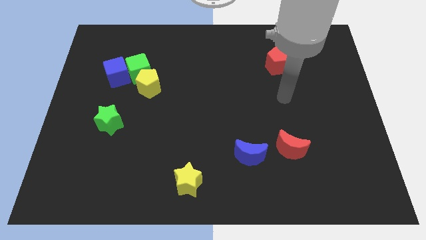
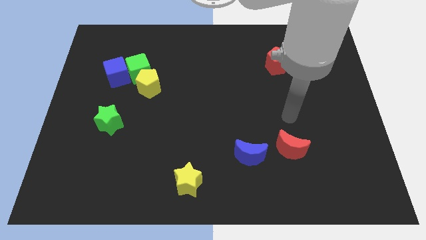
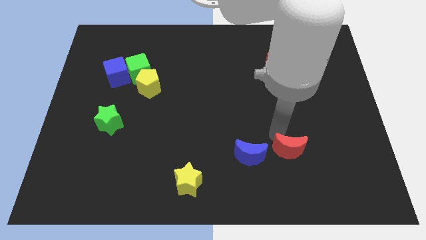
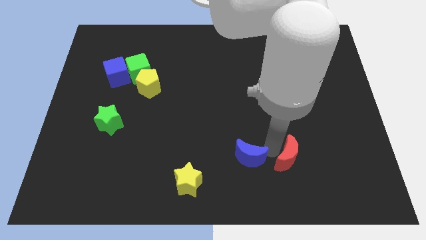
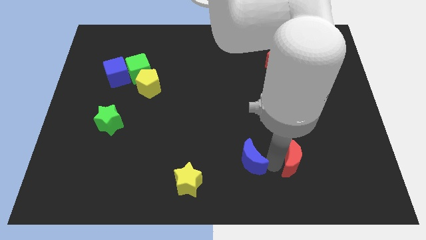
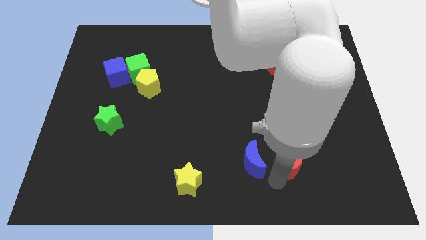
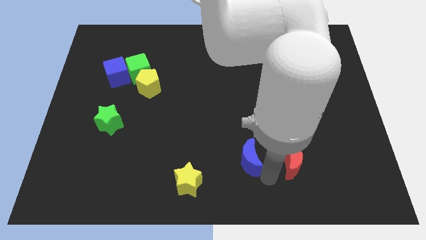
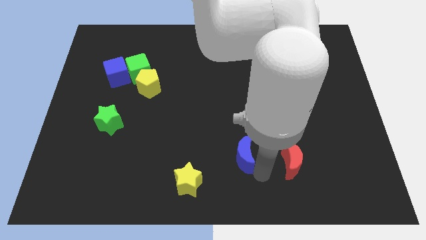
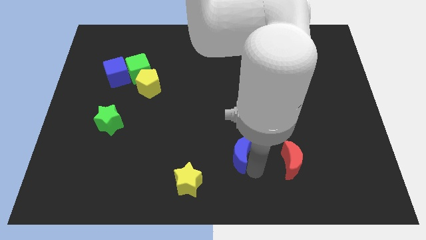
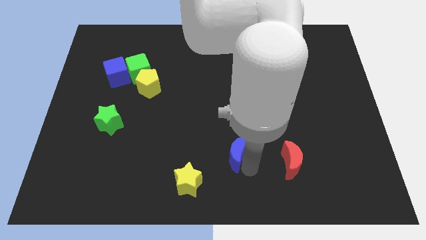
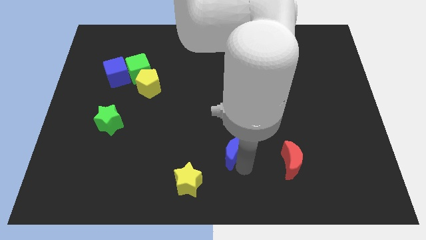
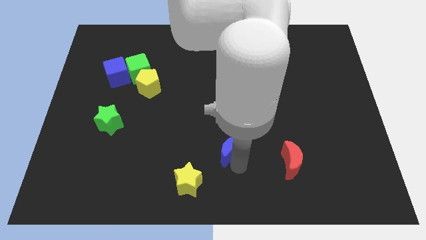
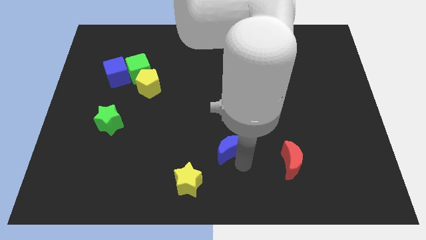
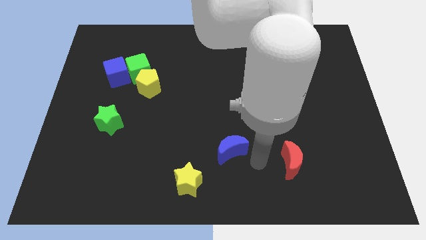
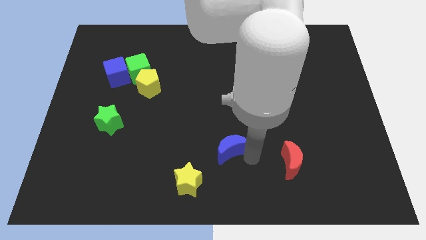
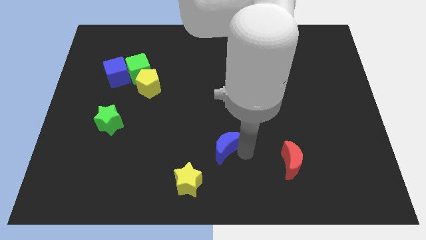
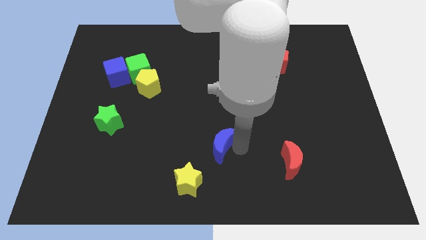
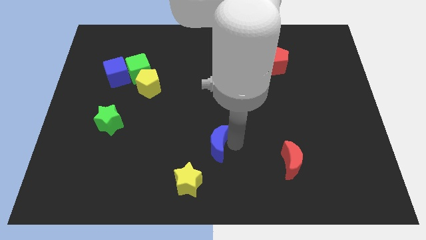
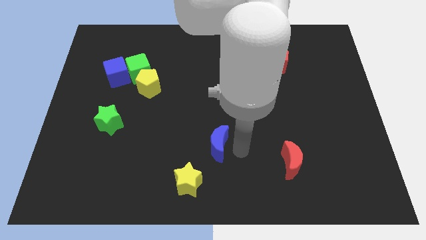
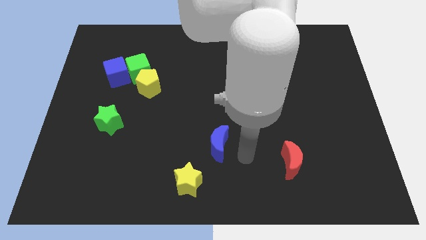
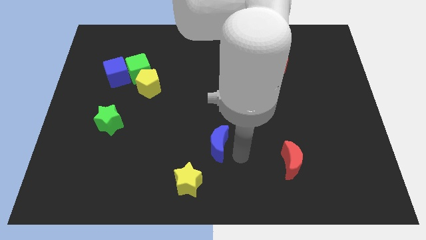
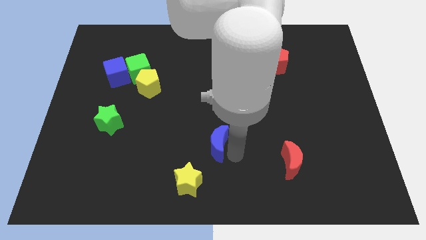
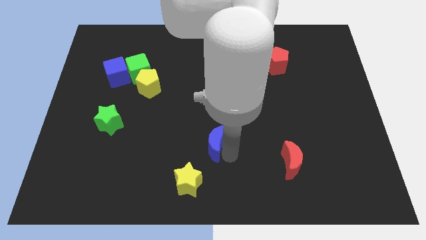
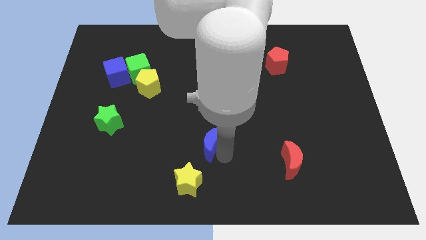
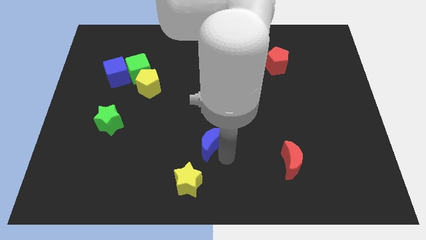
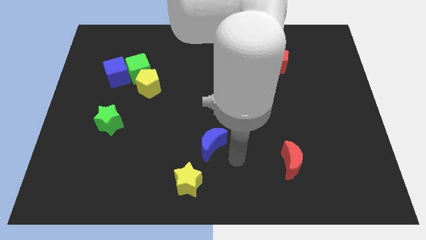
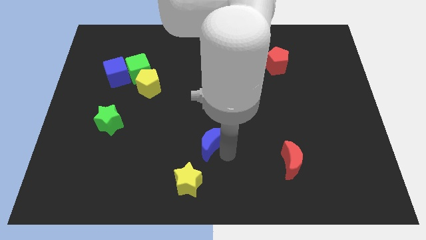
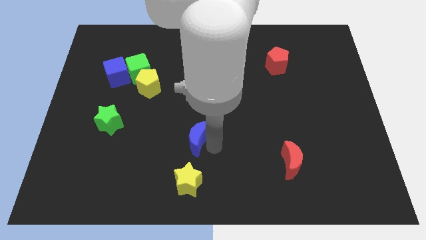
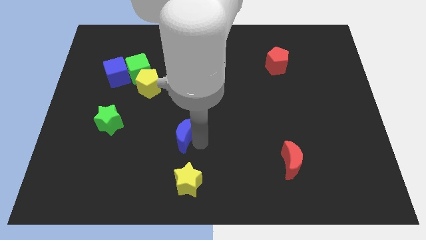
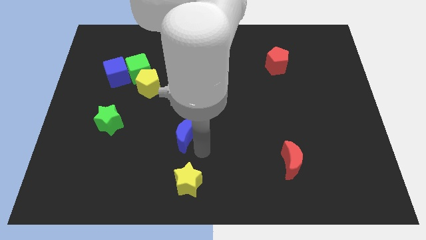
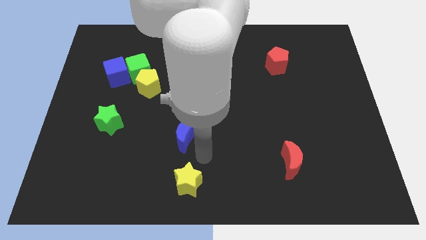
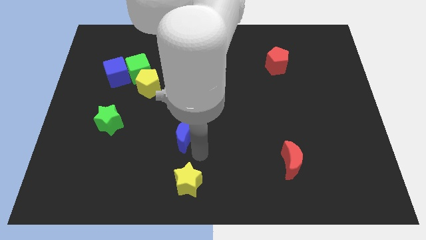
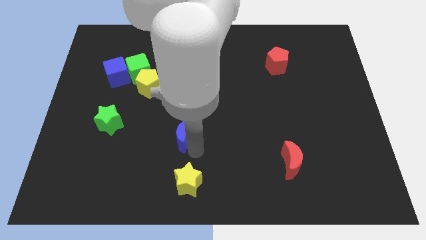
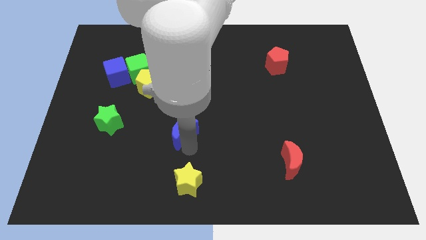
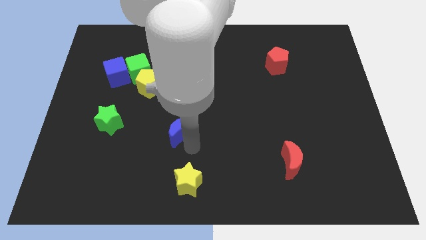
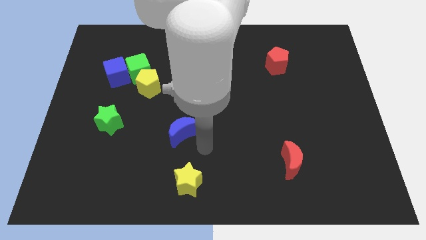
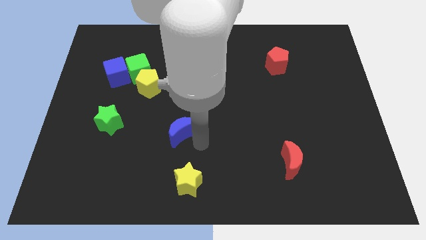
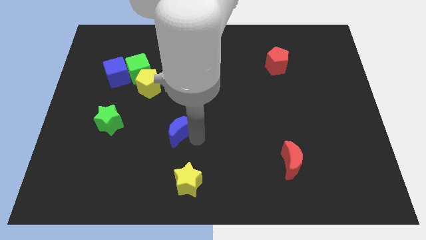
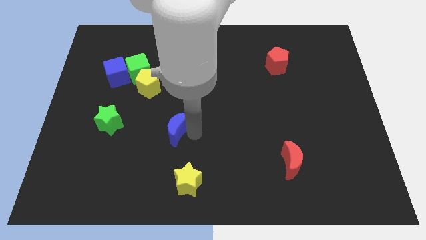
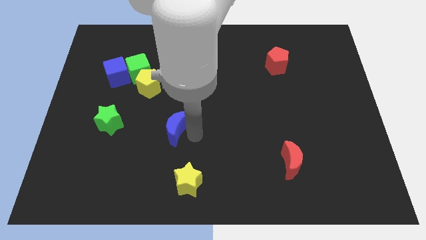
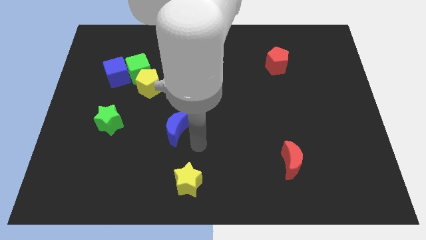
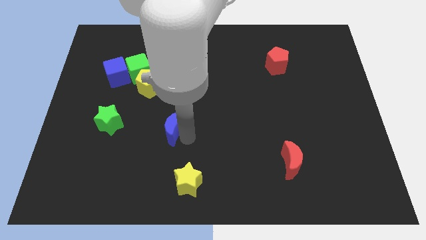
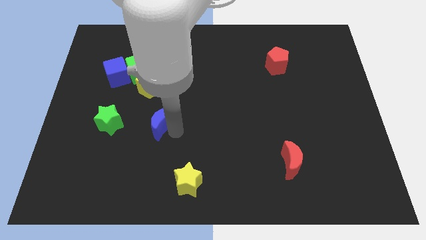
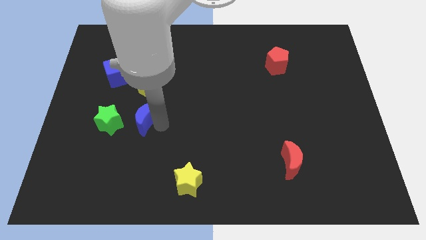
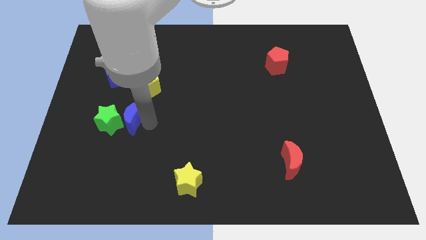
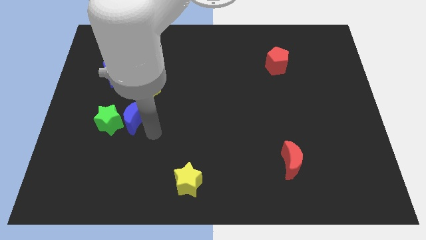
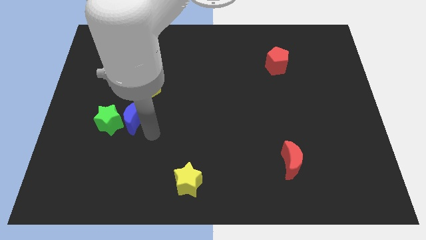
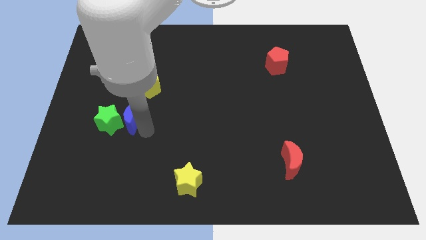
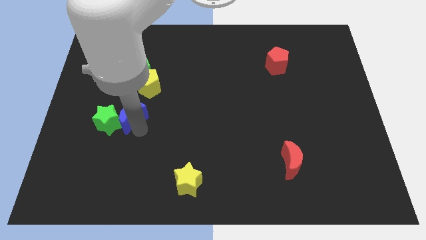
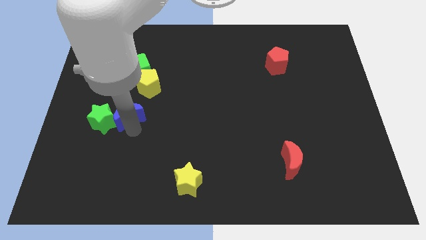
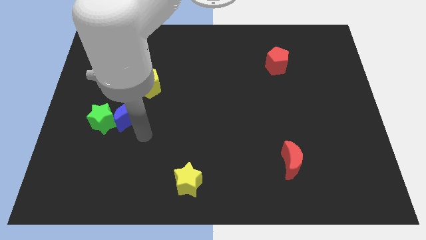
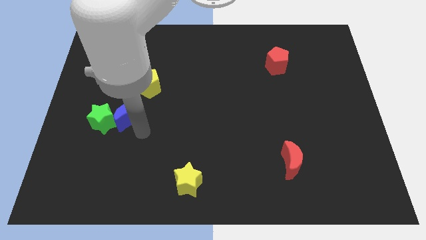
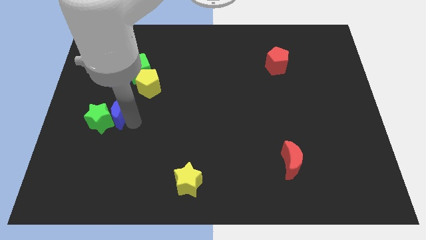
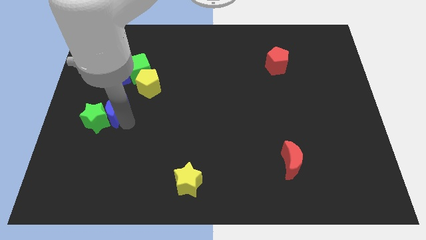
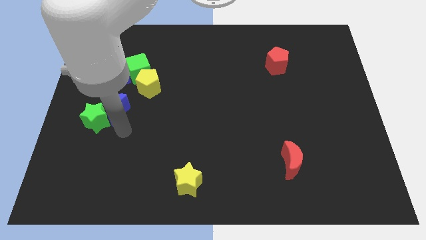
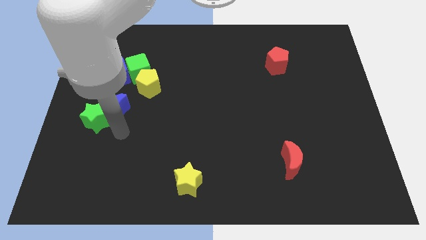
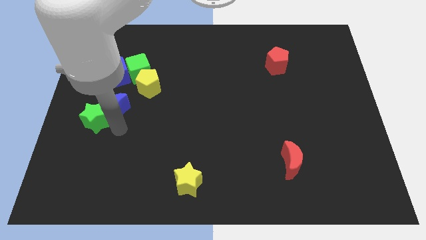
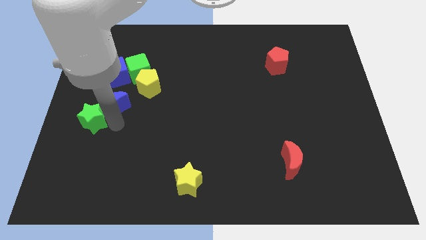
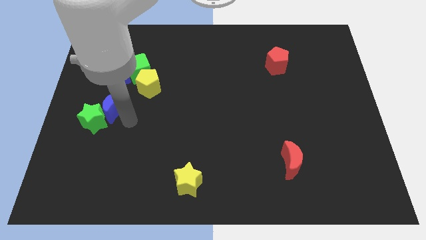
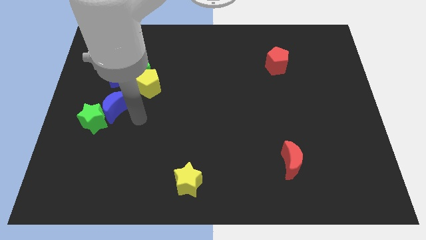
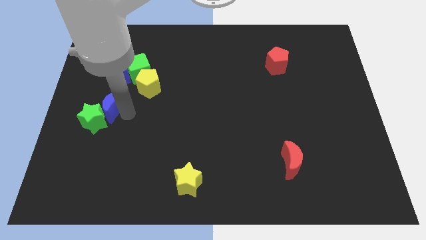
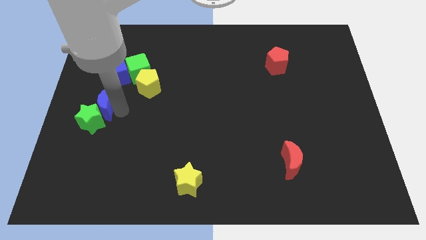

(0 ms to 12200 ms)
push the blue moon to the left side

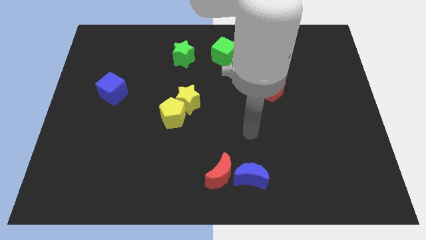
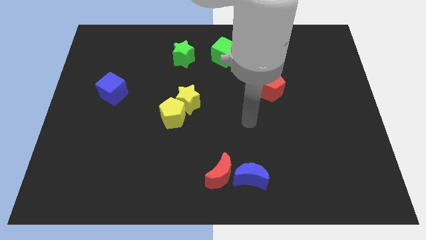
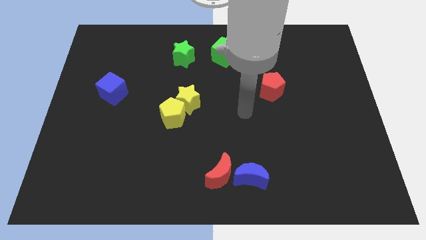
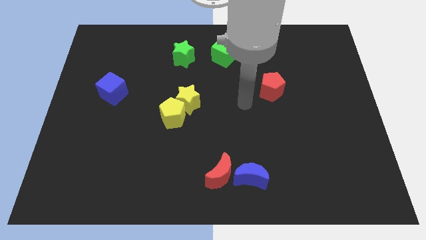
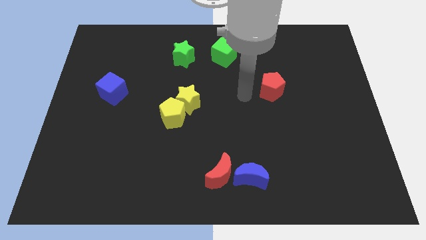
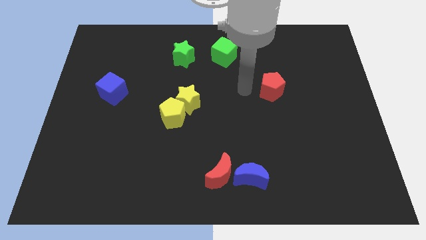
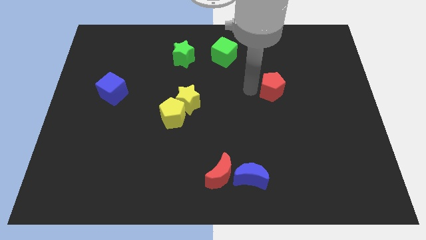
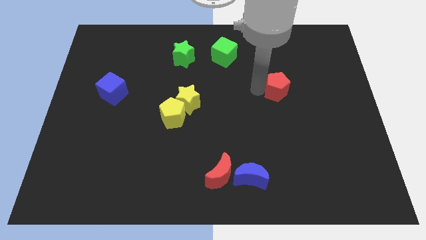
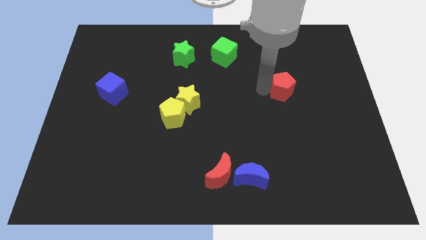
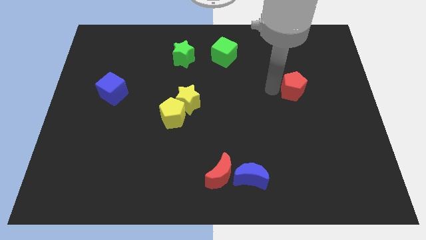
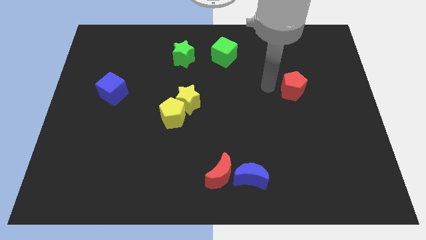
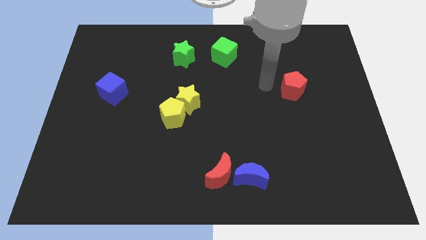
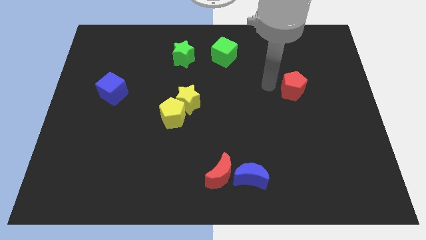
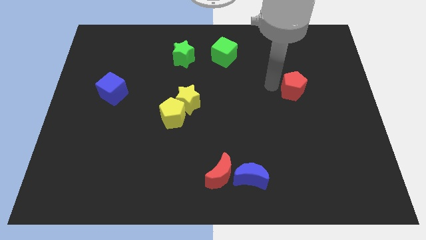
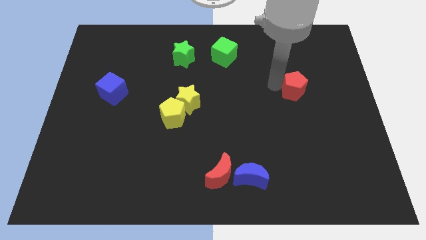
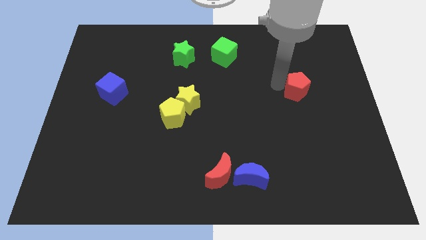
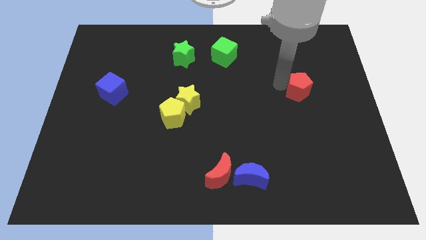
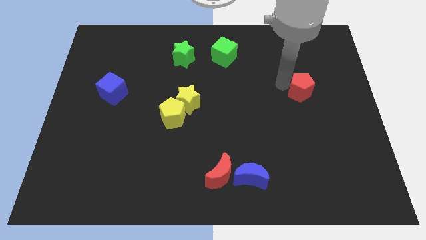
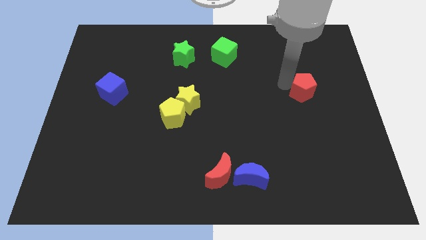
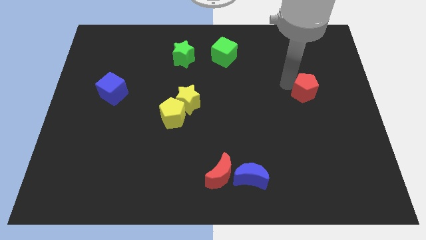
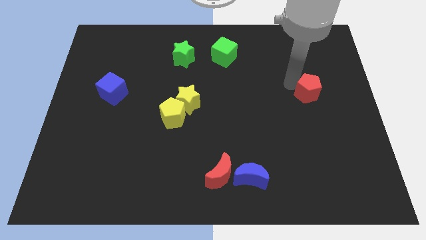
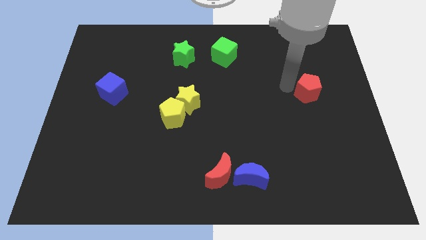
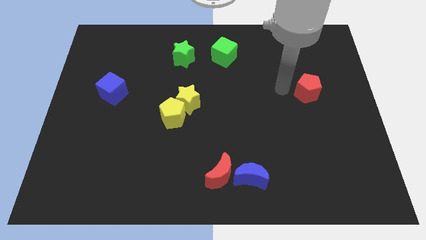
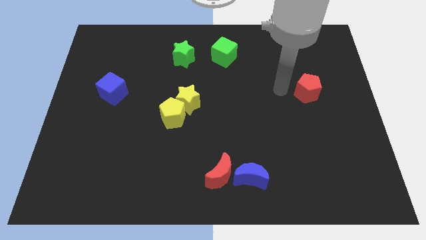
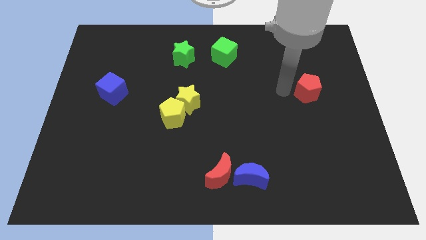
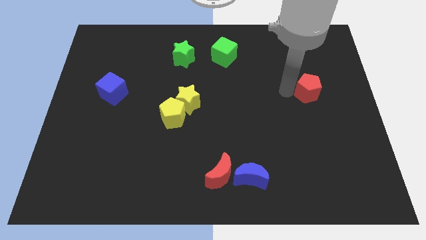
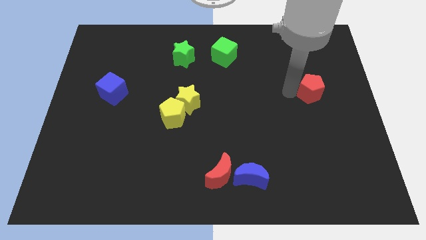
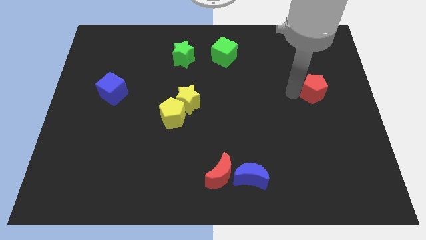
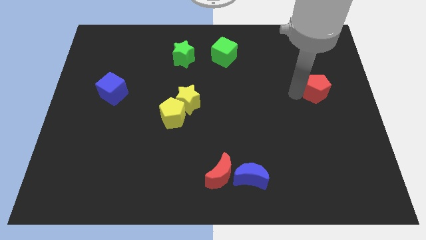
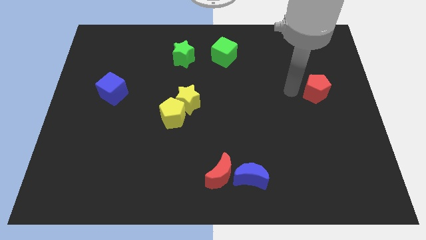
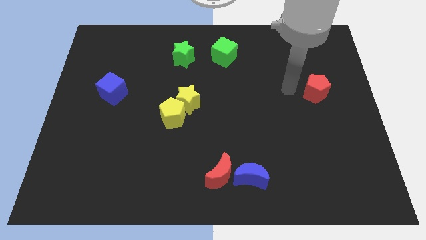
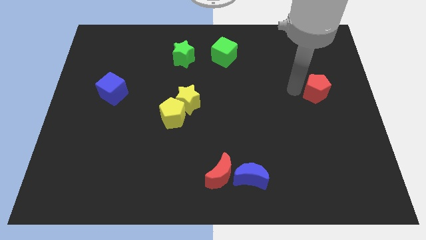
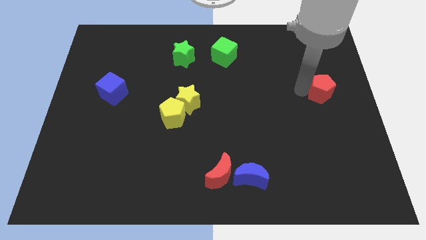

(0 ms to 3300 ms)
move the red pentagon to the center right
